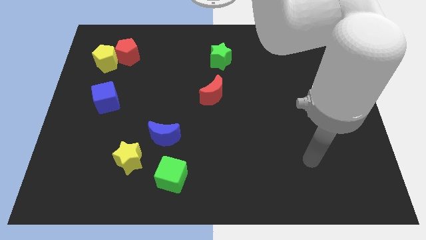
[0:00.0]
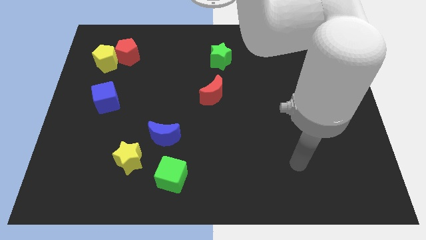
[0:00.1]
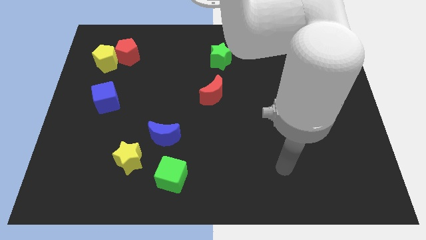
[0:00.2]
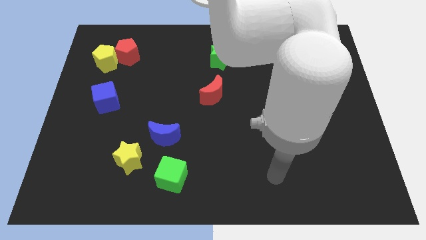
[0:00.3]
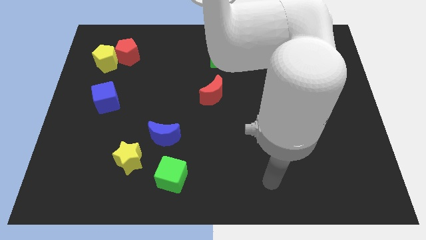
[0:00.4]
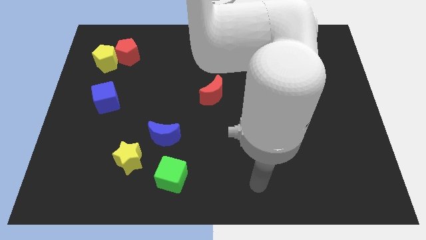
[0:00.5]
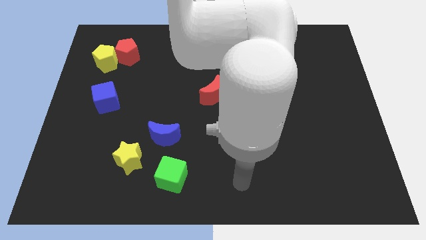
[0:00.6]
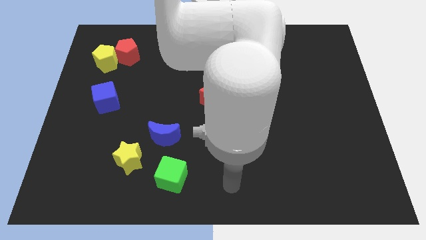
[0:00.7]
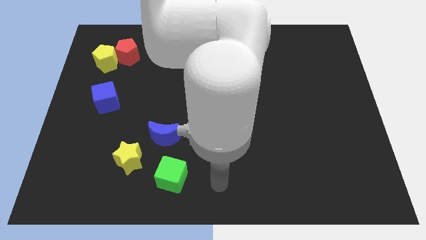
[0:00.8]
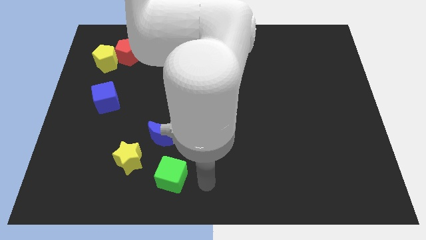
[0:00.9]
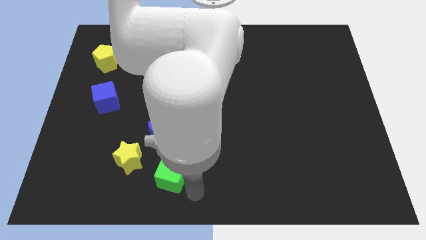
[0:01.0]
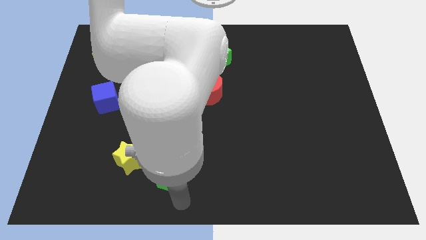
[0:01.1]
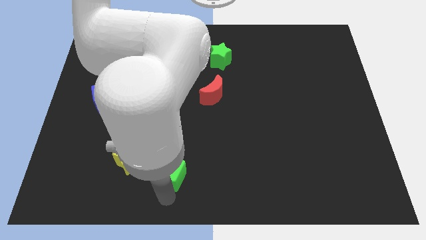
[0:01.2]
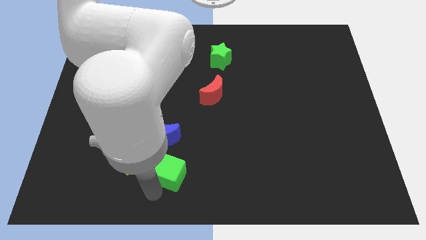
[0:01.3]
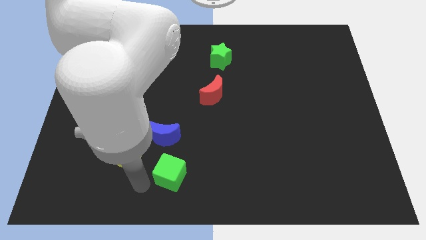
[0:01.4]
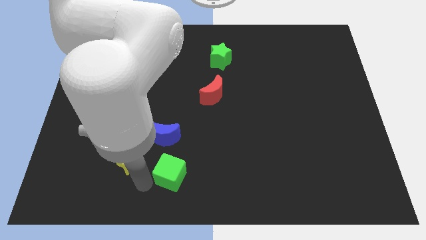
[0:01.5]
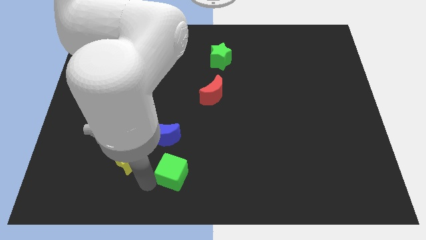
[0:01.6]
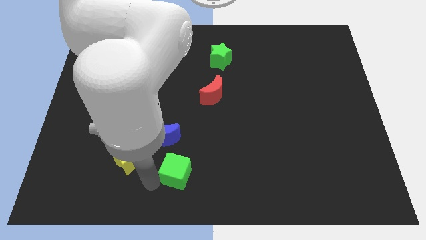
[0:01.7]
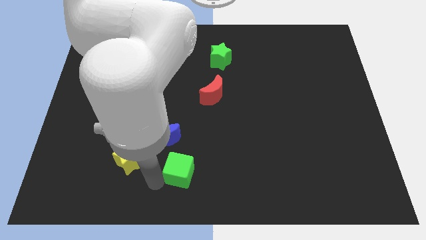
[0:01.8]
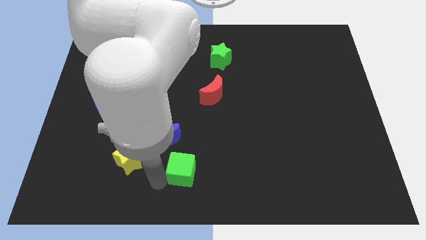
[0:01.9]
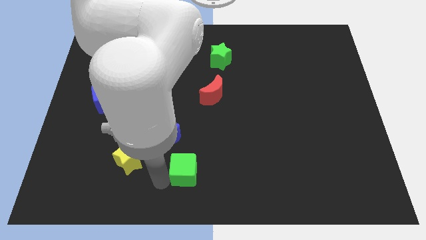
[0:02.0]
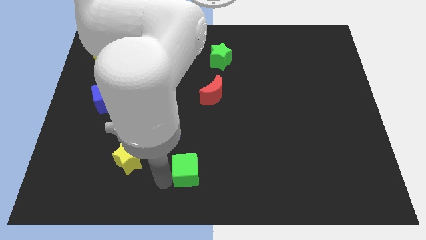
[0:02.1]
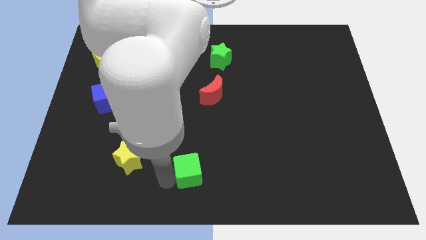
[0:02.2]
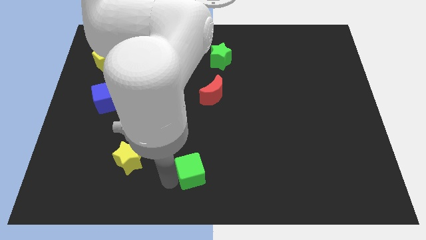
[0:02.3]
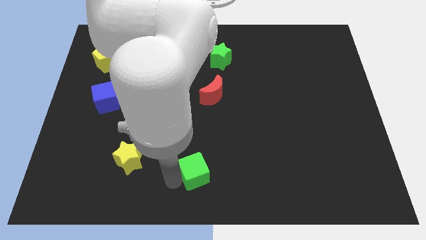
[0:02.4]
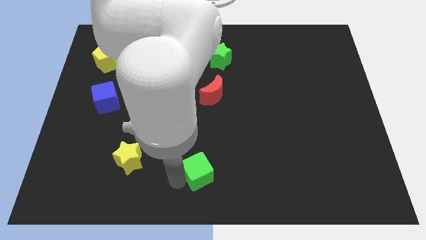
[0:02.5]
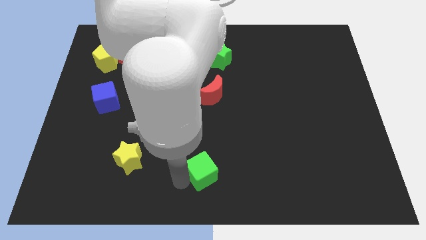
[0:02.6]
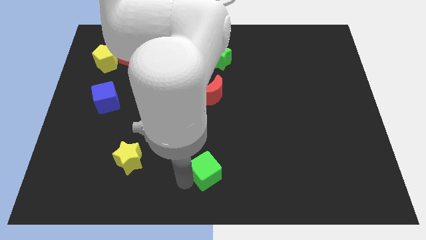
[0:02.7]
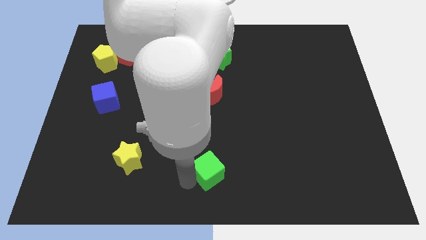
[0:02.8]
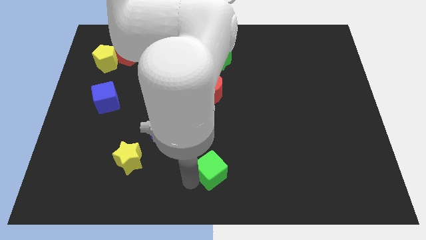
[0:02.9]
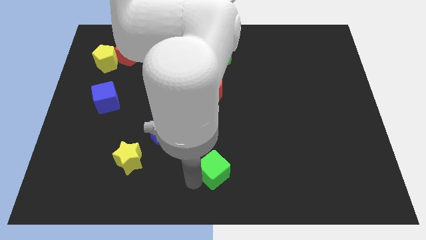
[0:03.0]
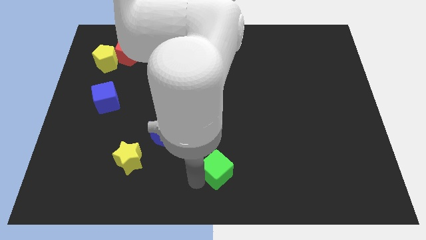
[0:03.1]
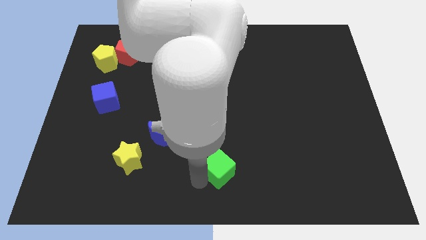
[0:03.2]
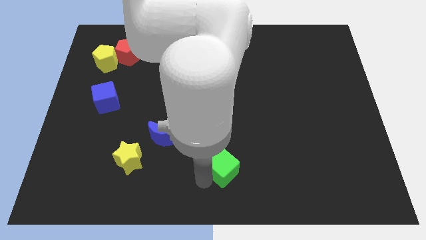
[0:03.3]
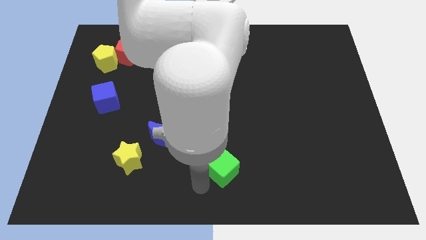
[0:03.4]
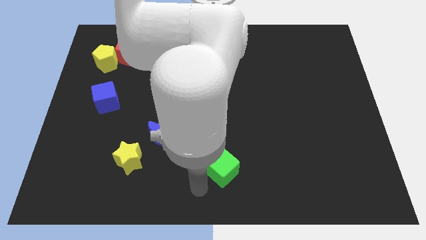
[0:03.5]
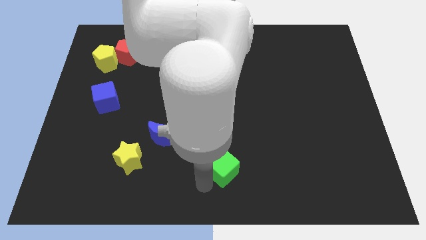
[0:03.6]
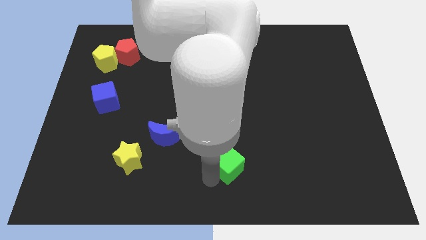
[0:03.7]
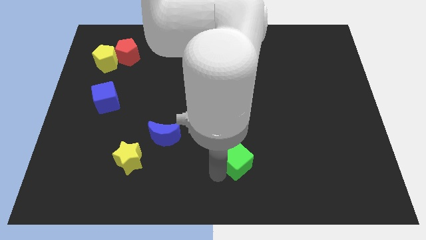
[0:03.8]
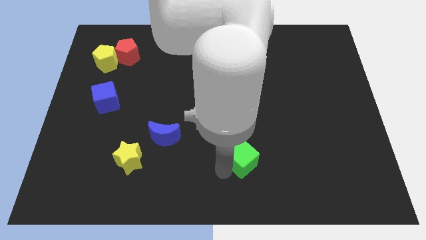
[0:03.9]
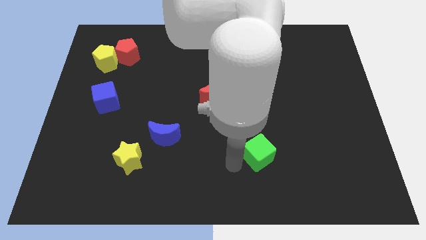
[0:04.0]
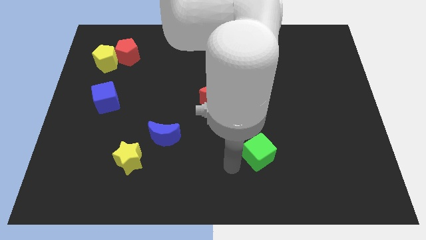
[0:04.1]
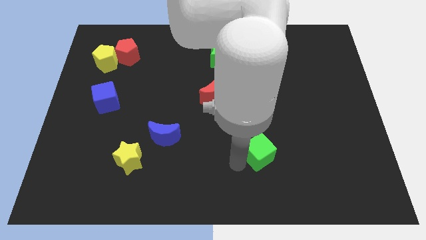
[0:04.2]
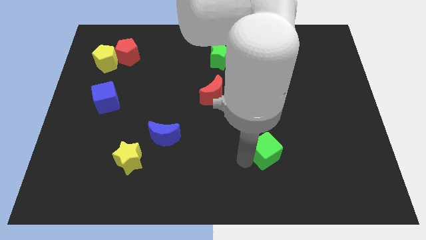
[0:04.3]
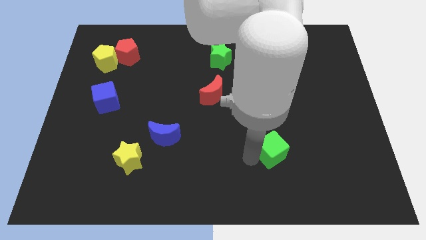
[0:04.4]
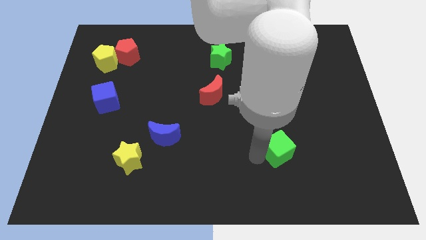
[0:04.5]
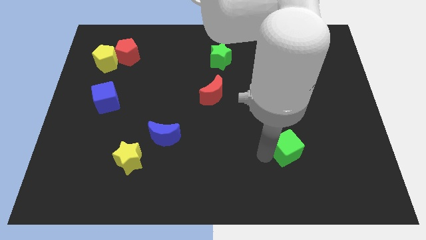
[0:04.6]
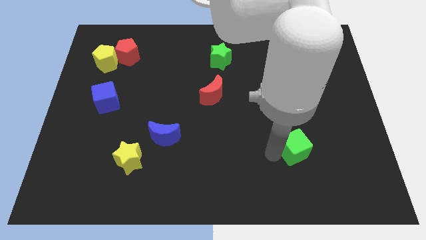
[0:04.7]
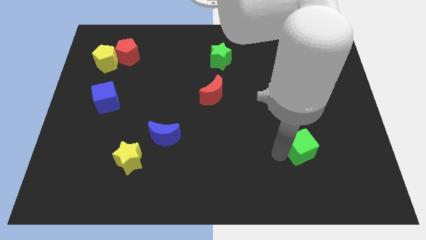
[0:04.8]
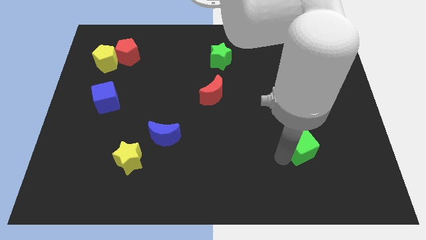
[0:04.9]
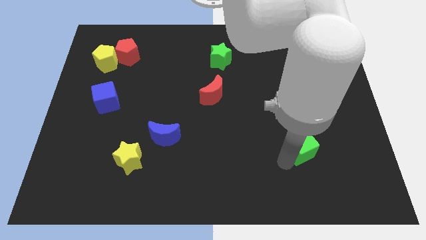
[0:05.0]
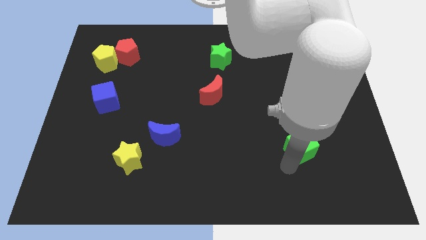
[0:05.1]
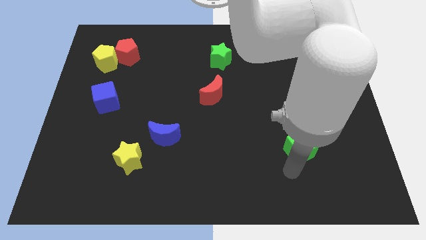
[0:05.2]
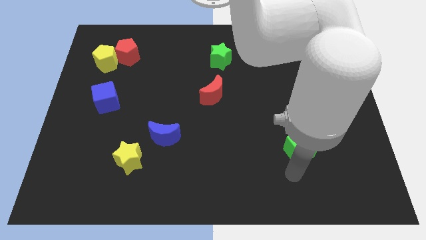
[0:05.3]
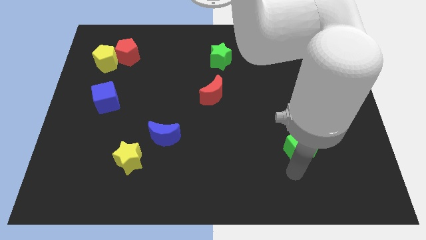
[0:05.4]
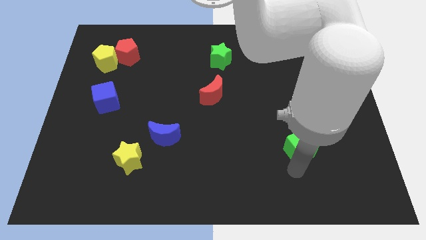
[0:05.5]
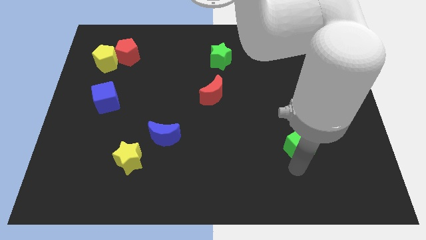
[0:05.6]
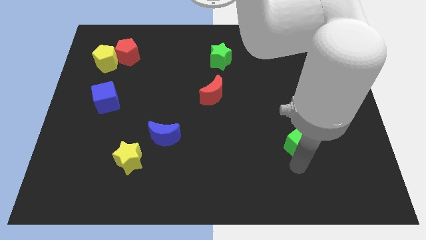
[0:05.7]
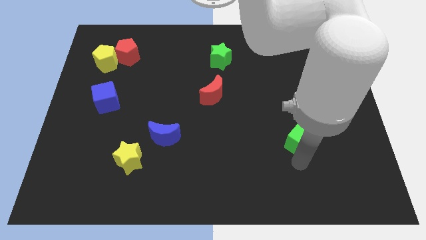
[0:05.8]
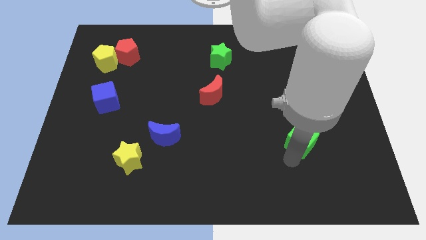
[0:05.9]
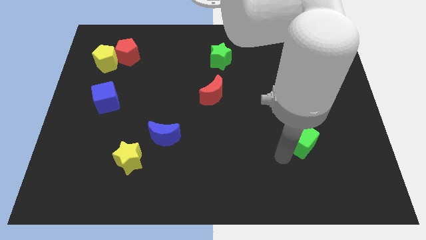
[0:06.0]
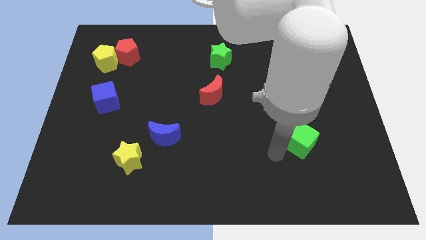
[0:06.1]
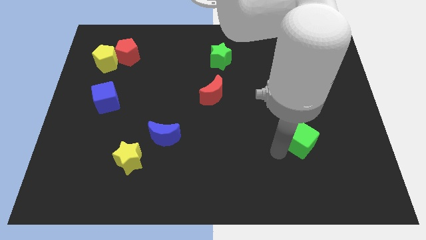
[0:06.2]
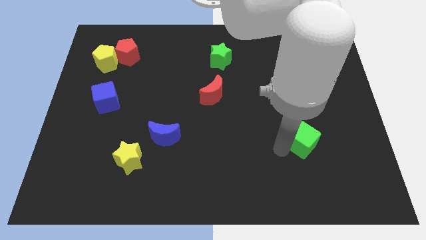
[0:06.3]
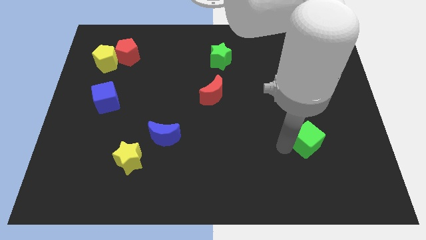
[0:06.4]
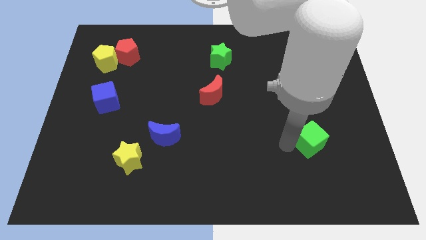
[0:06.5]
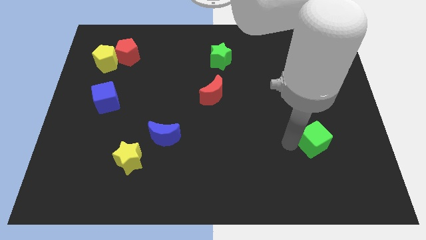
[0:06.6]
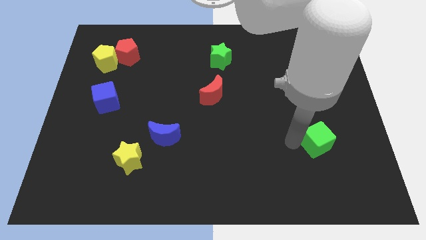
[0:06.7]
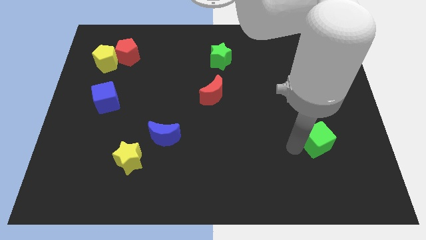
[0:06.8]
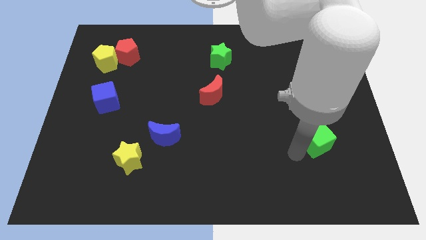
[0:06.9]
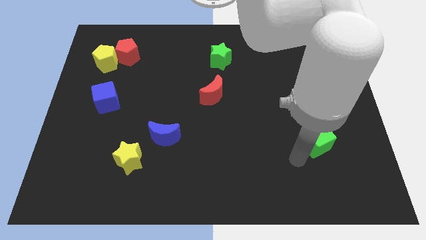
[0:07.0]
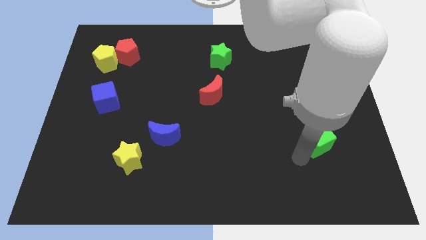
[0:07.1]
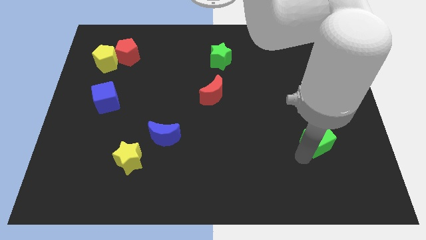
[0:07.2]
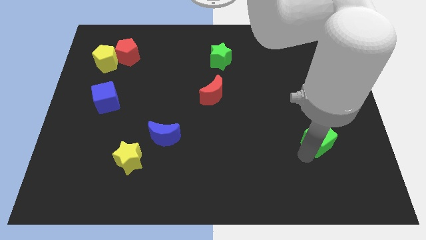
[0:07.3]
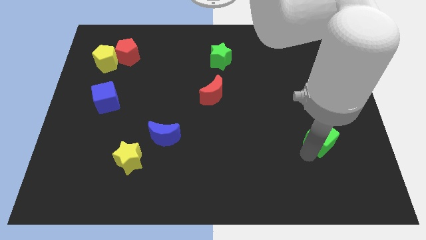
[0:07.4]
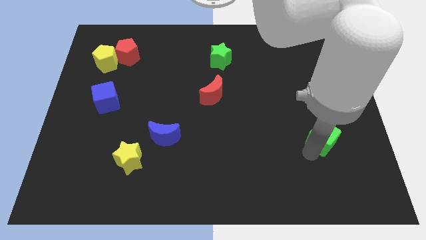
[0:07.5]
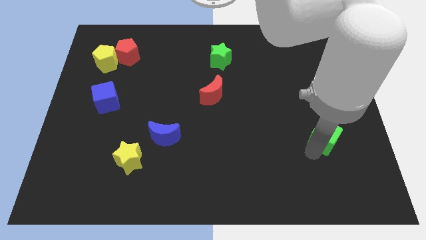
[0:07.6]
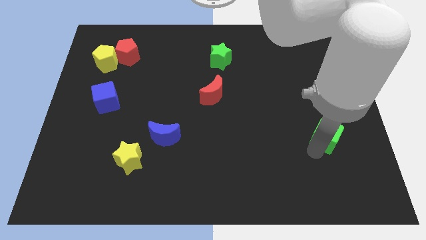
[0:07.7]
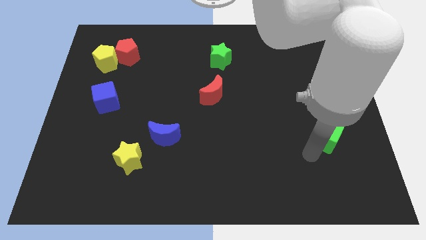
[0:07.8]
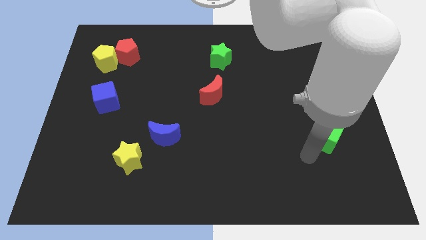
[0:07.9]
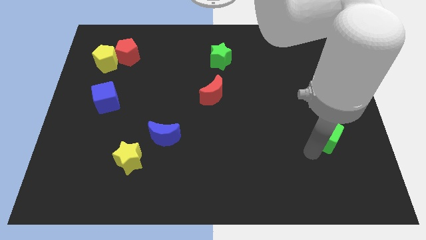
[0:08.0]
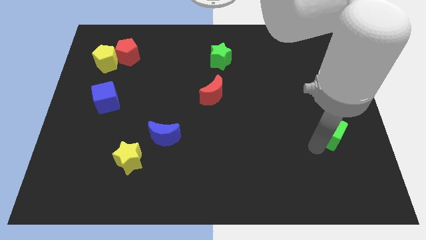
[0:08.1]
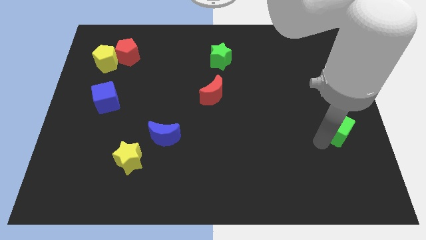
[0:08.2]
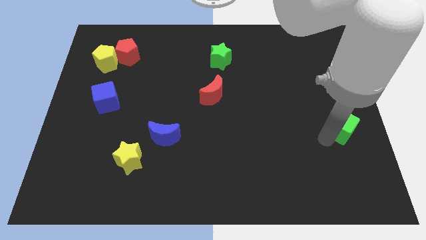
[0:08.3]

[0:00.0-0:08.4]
put the green cube to the right side
